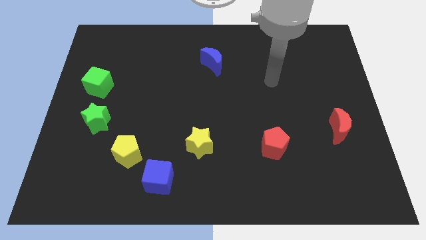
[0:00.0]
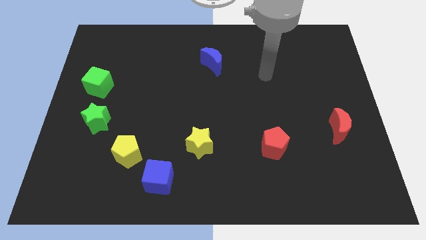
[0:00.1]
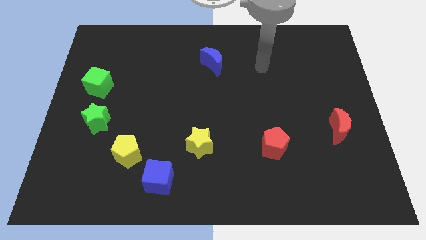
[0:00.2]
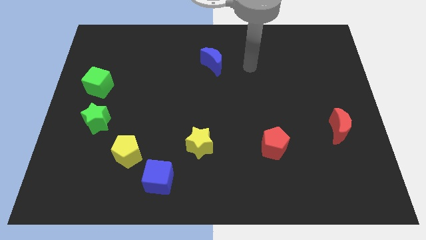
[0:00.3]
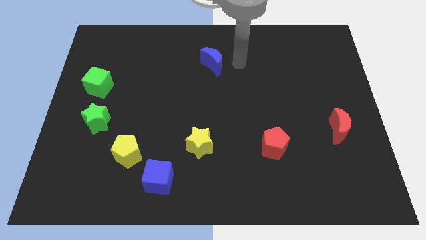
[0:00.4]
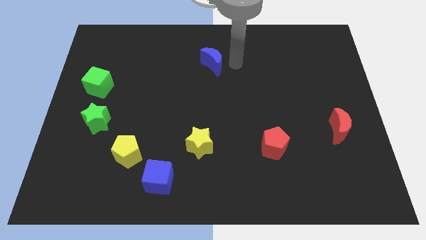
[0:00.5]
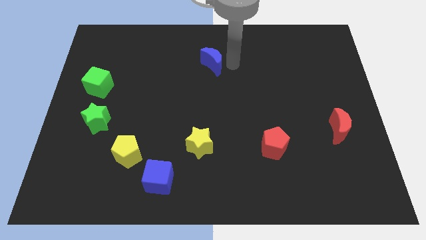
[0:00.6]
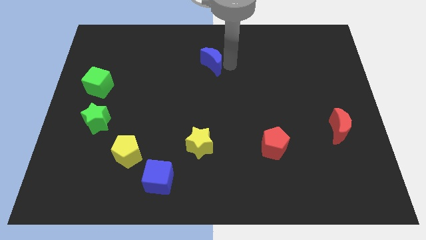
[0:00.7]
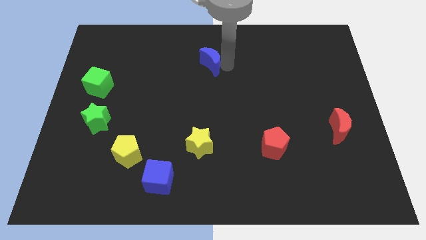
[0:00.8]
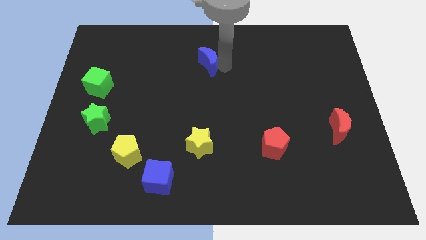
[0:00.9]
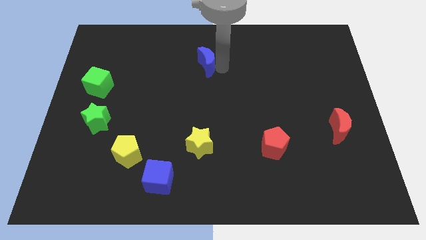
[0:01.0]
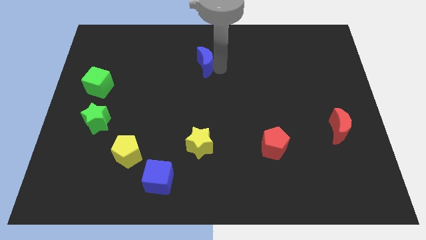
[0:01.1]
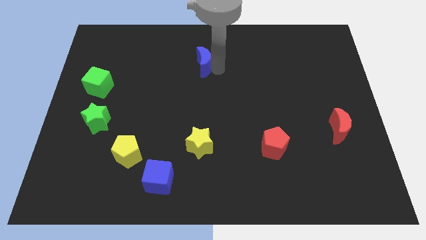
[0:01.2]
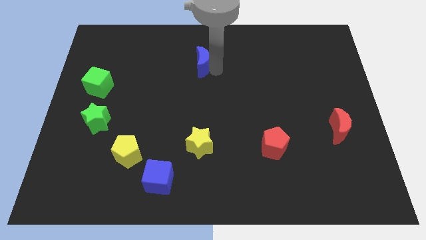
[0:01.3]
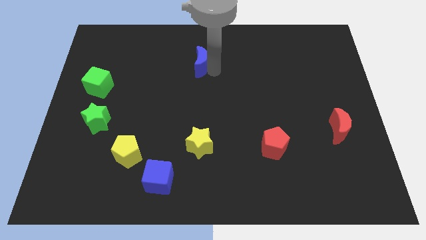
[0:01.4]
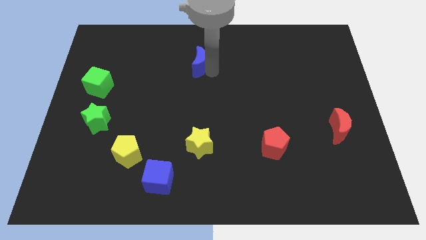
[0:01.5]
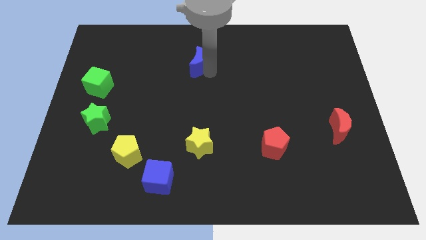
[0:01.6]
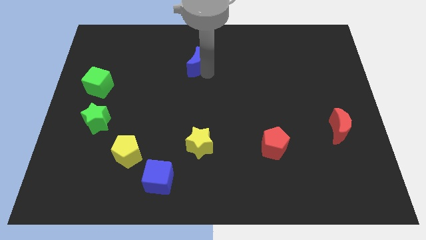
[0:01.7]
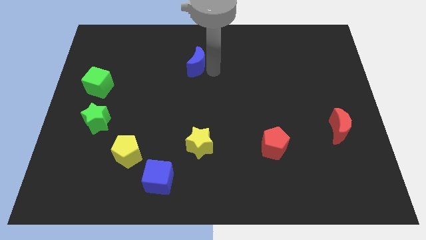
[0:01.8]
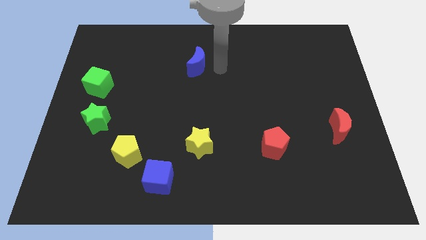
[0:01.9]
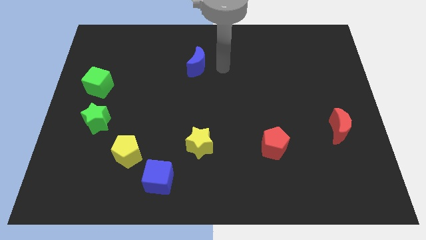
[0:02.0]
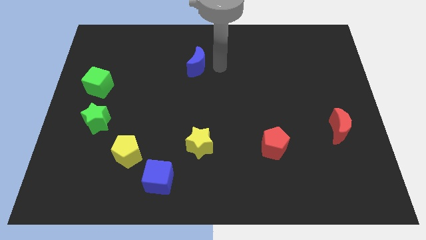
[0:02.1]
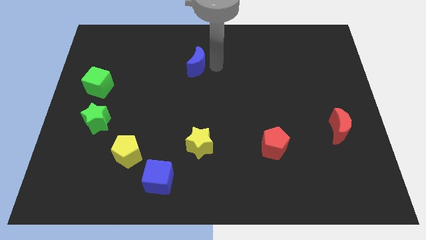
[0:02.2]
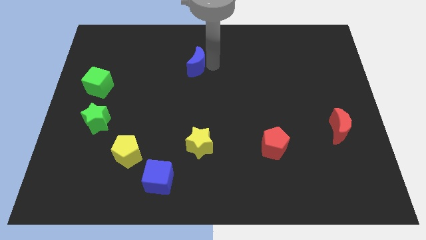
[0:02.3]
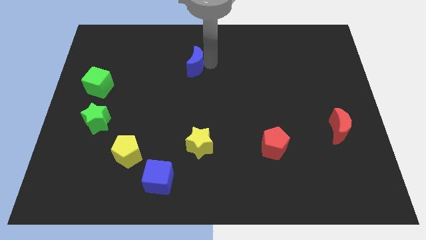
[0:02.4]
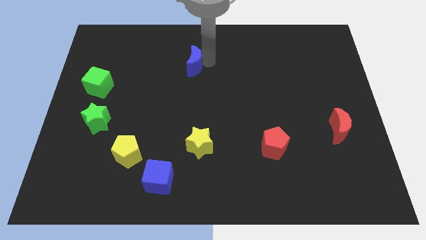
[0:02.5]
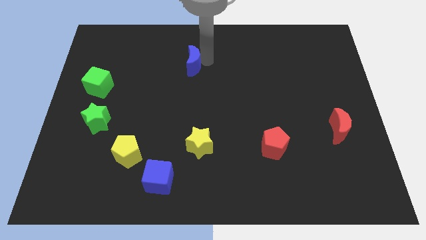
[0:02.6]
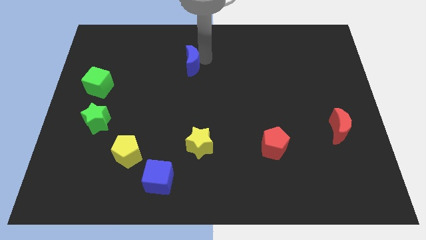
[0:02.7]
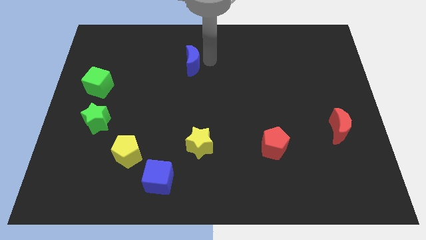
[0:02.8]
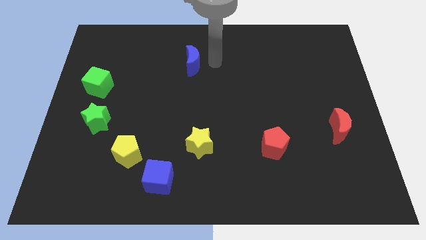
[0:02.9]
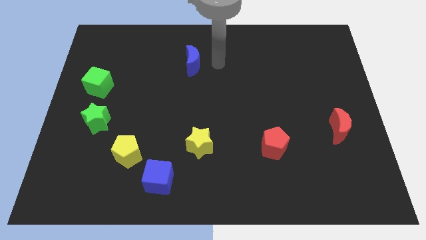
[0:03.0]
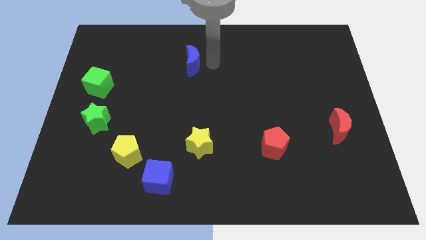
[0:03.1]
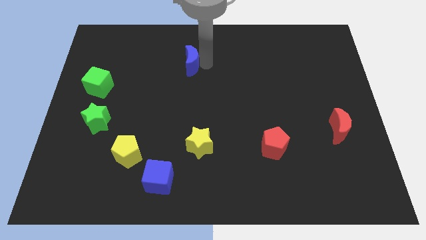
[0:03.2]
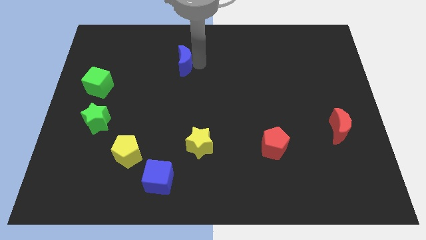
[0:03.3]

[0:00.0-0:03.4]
push the blue moon a bit left

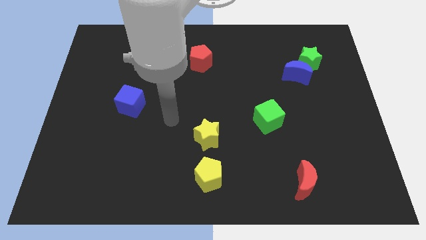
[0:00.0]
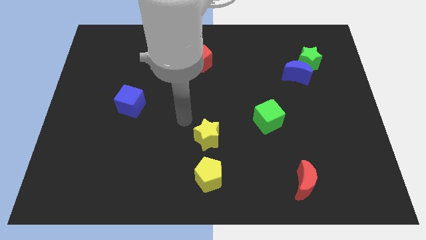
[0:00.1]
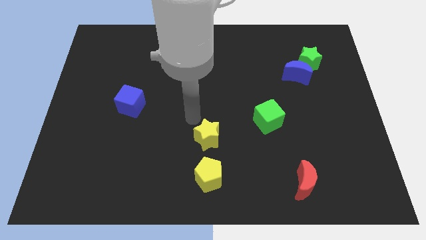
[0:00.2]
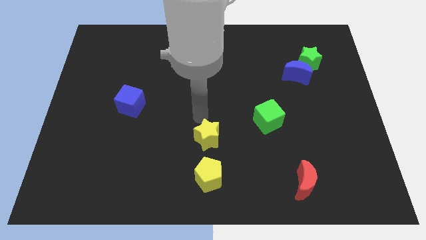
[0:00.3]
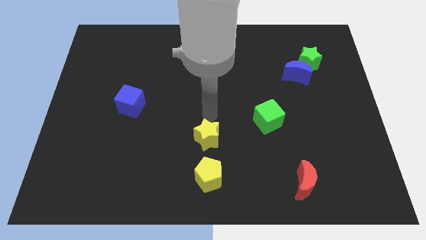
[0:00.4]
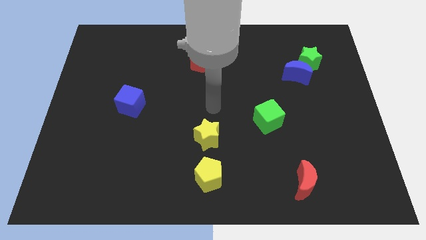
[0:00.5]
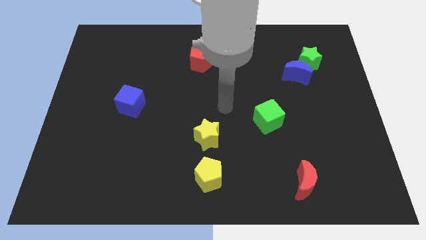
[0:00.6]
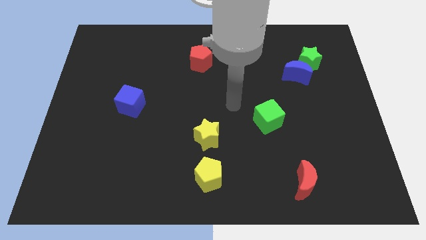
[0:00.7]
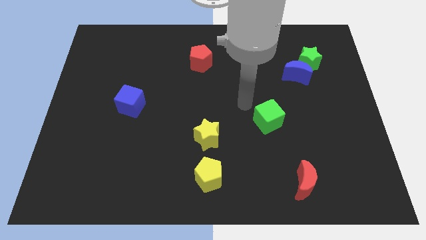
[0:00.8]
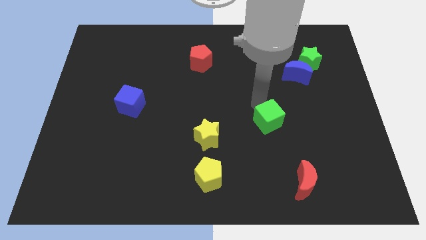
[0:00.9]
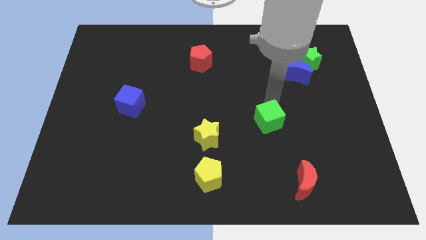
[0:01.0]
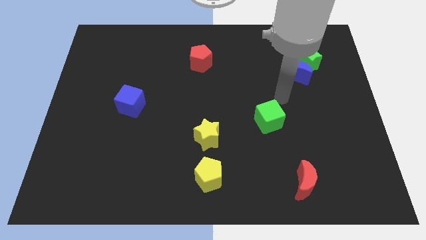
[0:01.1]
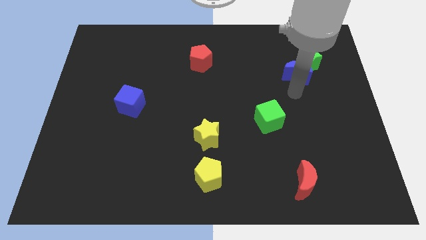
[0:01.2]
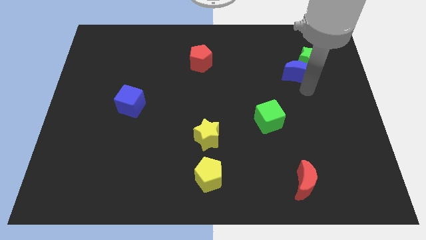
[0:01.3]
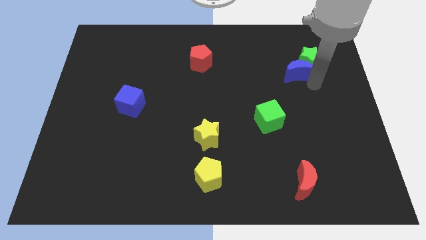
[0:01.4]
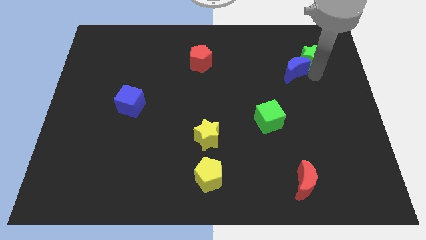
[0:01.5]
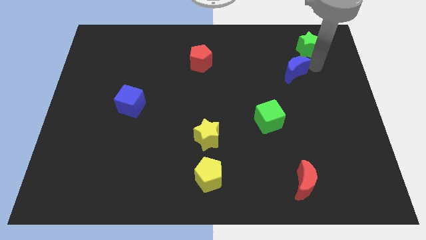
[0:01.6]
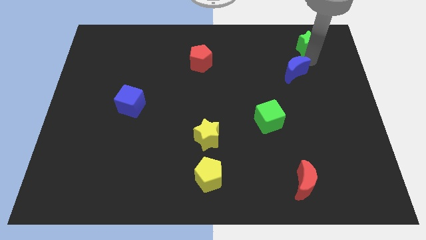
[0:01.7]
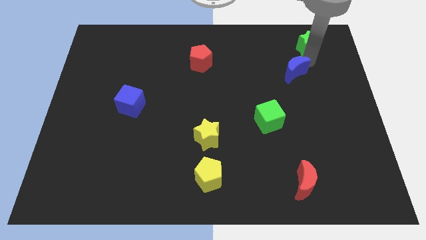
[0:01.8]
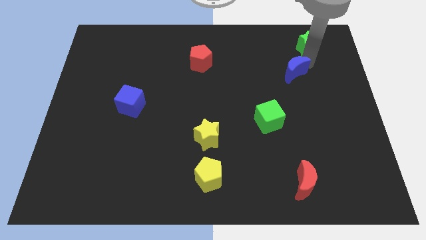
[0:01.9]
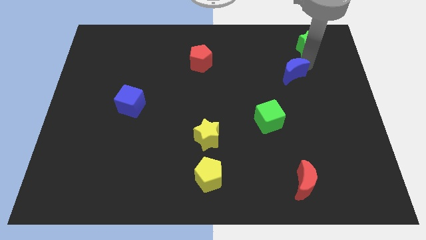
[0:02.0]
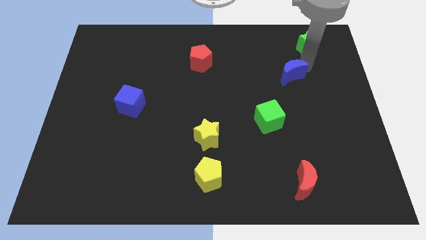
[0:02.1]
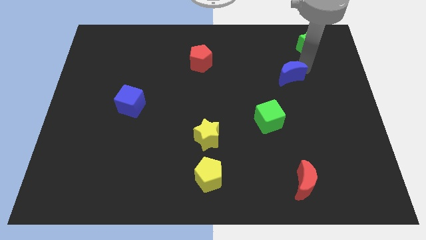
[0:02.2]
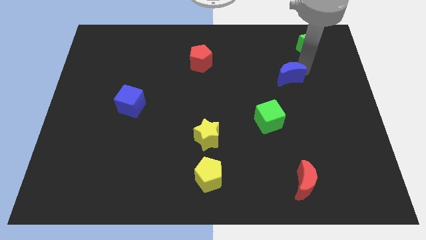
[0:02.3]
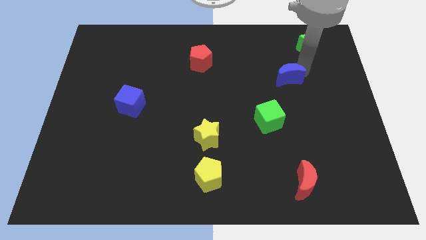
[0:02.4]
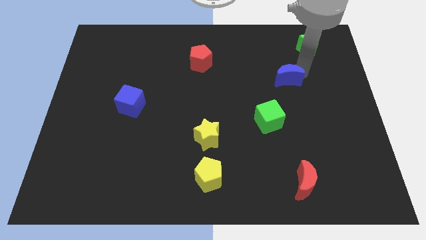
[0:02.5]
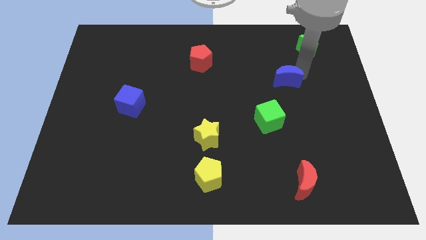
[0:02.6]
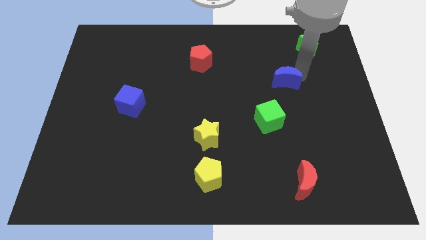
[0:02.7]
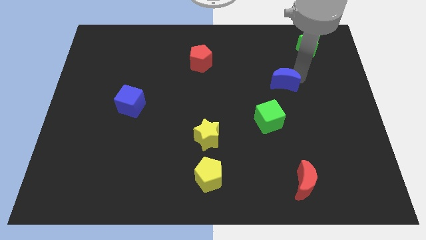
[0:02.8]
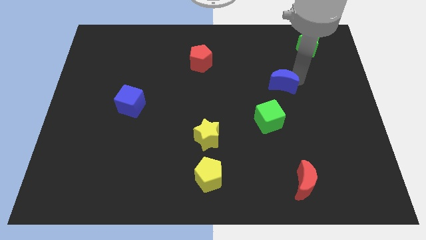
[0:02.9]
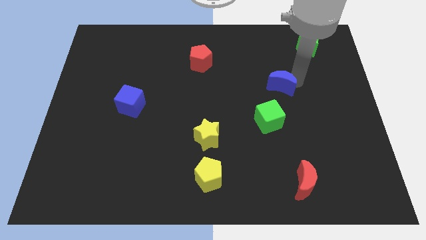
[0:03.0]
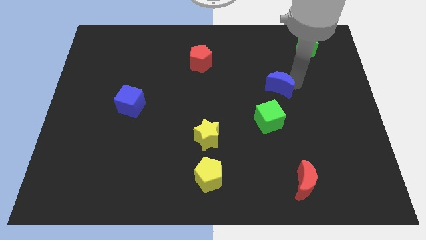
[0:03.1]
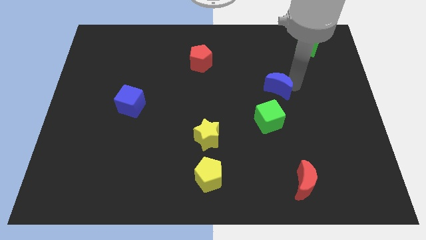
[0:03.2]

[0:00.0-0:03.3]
push the blue moon downwards and left diagonally a little

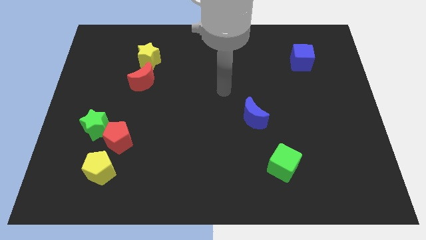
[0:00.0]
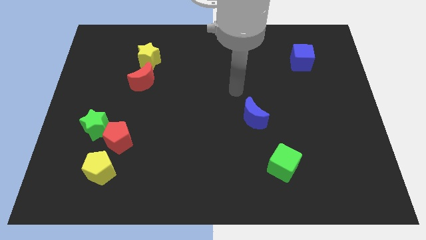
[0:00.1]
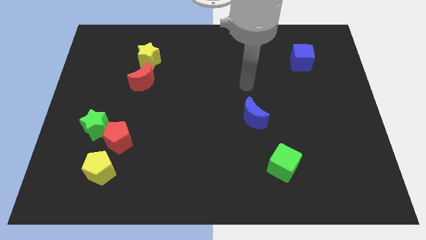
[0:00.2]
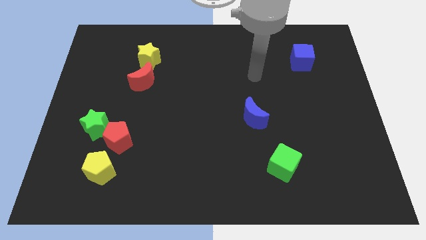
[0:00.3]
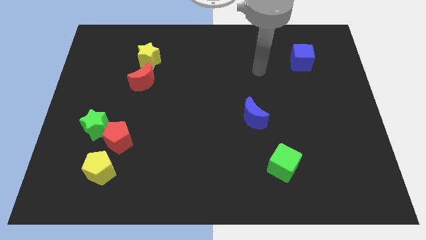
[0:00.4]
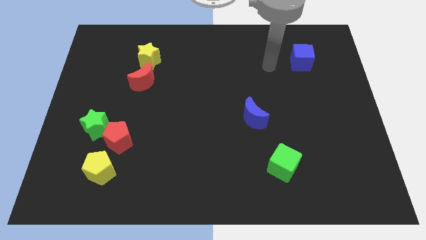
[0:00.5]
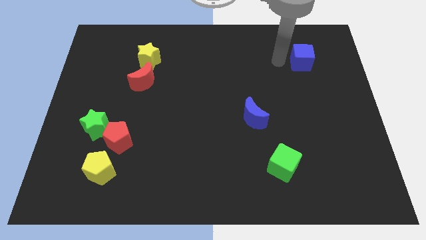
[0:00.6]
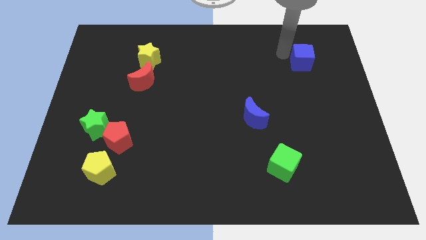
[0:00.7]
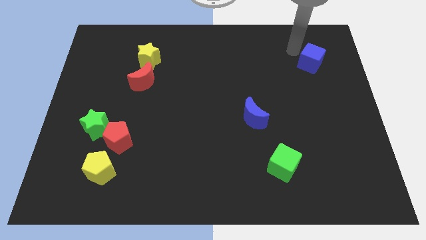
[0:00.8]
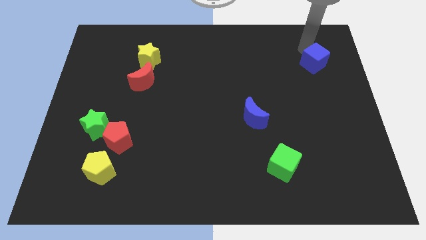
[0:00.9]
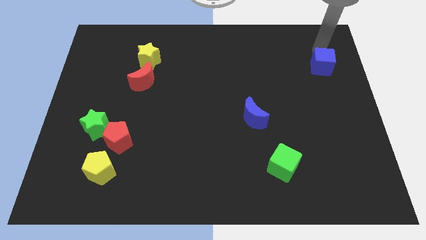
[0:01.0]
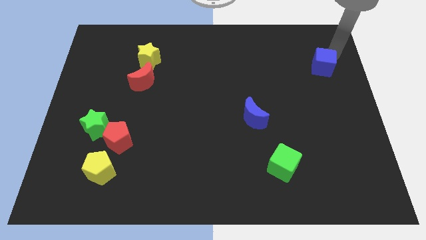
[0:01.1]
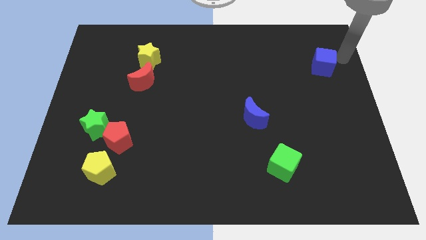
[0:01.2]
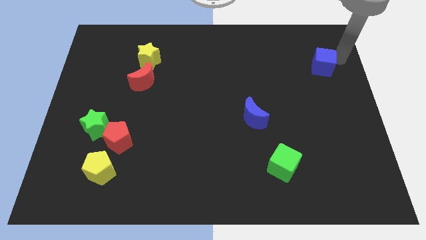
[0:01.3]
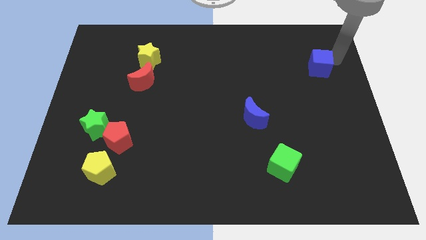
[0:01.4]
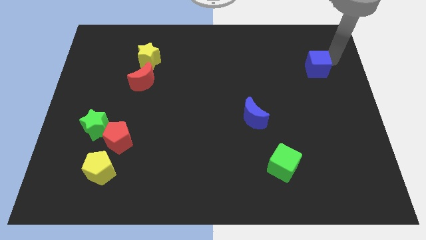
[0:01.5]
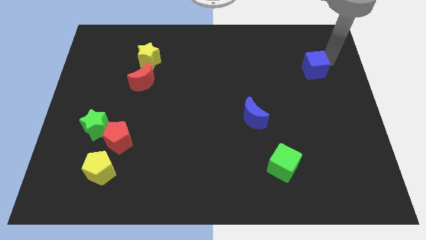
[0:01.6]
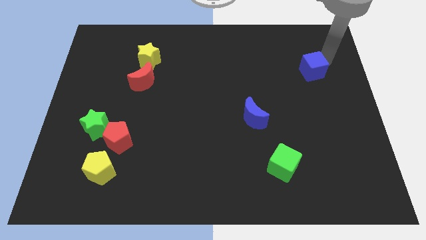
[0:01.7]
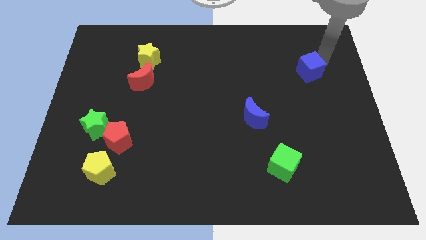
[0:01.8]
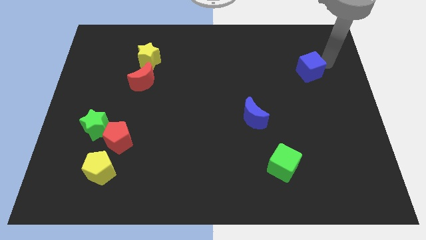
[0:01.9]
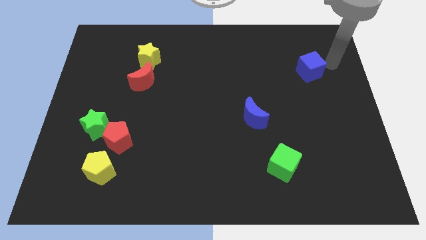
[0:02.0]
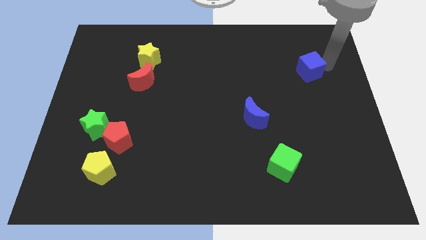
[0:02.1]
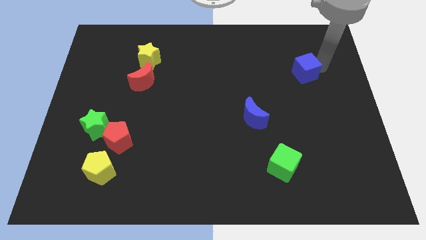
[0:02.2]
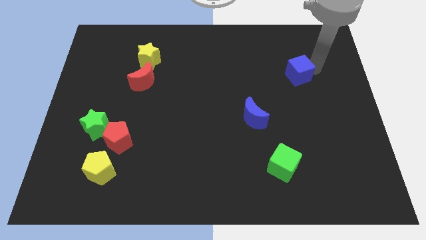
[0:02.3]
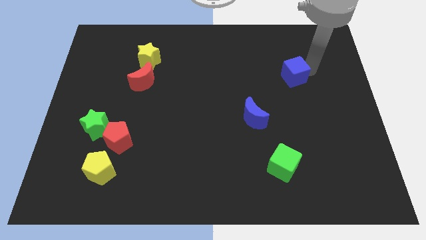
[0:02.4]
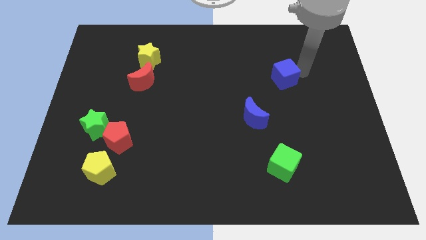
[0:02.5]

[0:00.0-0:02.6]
slightly move the blue cube diagonally down and to the left
